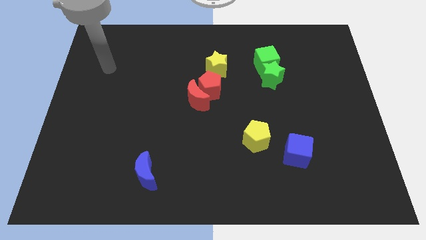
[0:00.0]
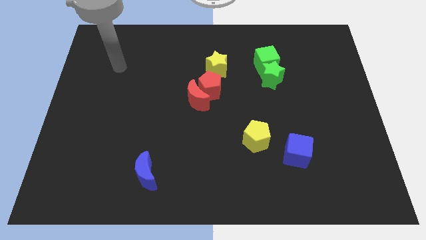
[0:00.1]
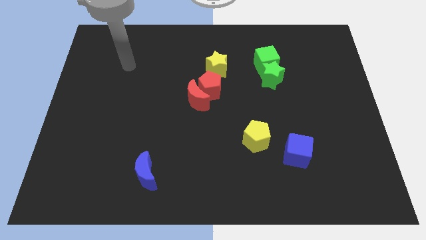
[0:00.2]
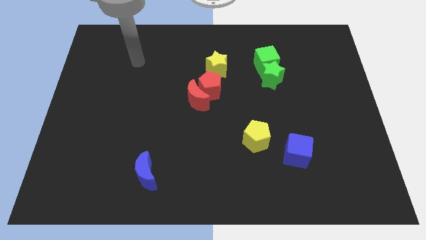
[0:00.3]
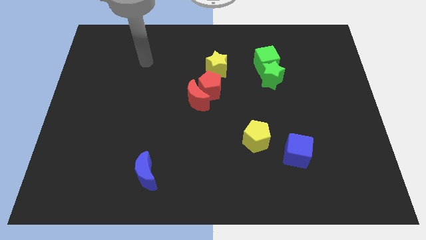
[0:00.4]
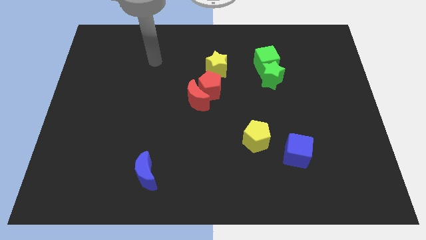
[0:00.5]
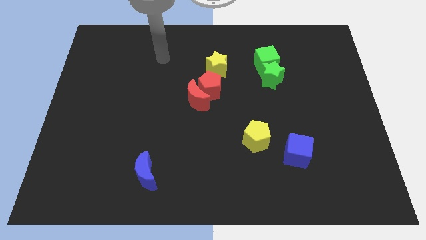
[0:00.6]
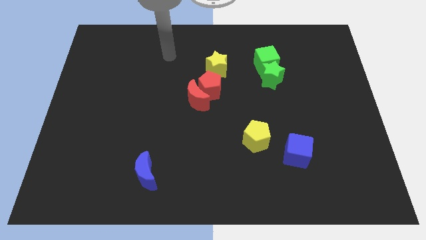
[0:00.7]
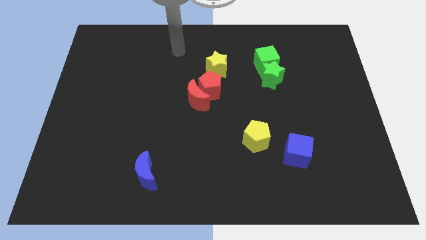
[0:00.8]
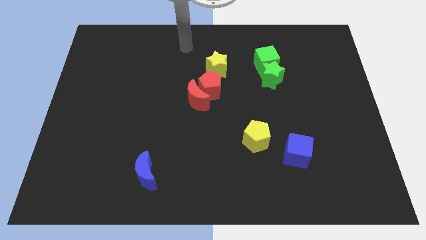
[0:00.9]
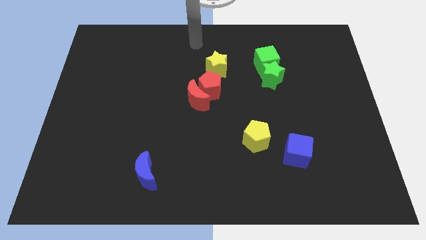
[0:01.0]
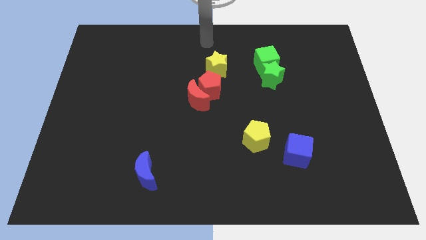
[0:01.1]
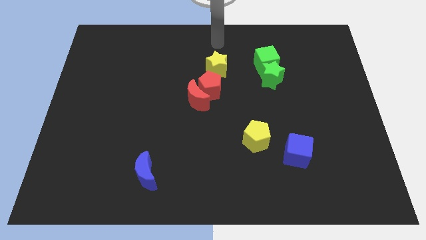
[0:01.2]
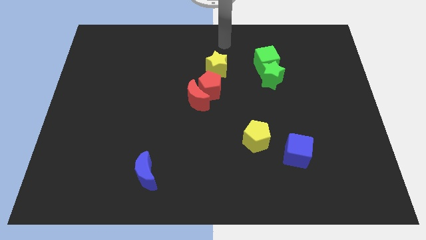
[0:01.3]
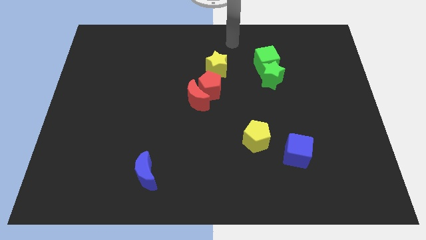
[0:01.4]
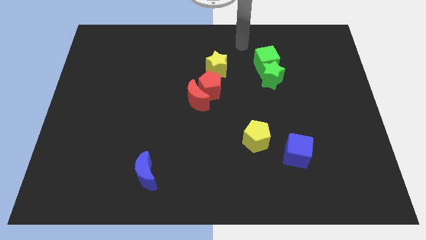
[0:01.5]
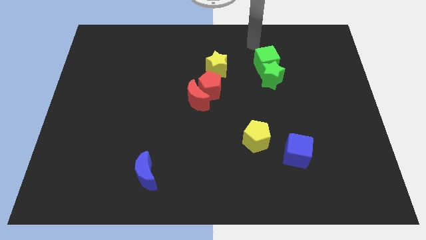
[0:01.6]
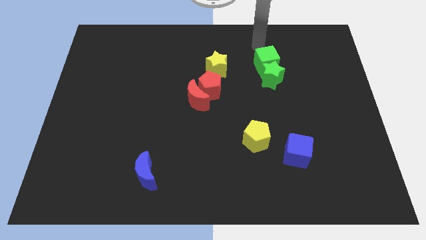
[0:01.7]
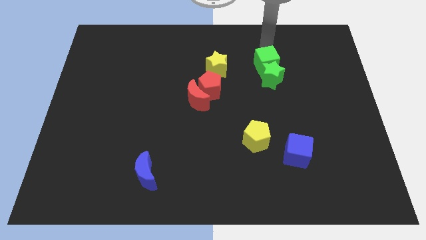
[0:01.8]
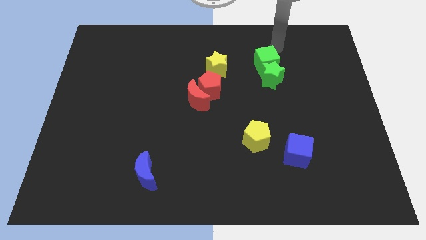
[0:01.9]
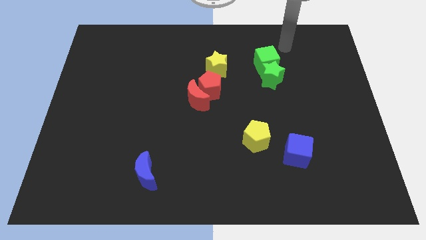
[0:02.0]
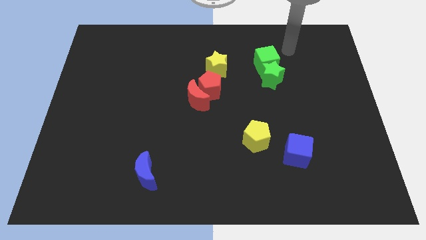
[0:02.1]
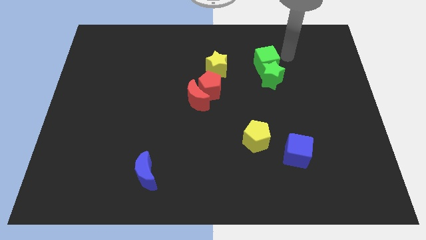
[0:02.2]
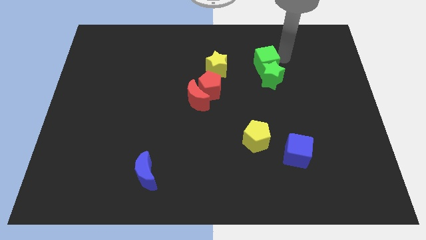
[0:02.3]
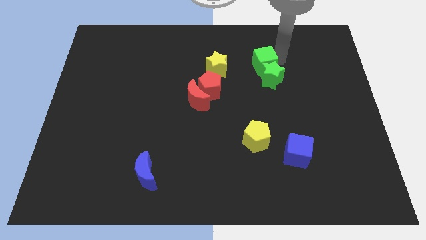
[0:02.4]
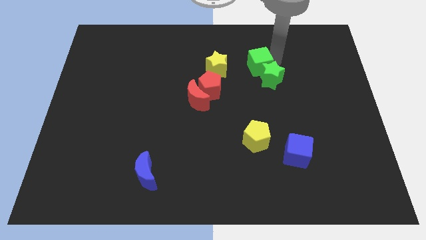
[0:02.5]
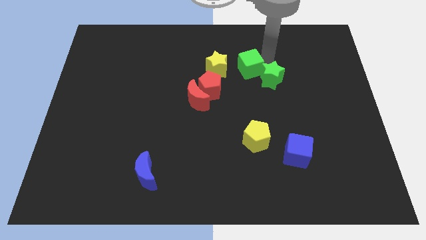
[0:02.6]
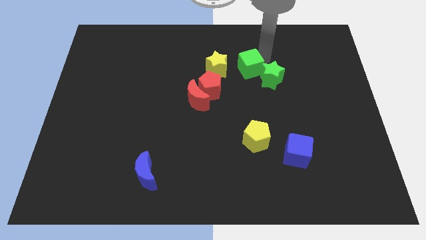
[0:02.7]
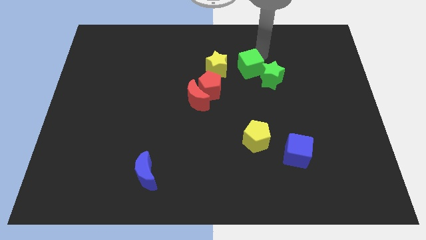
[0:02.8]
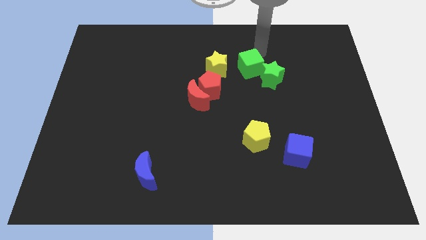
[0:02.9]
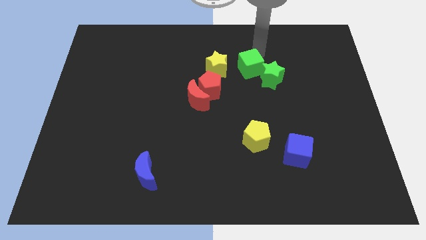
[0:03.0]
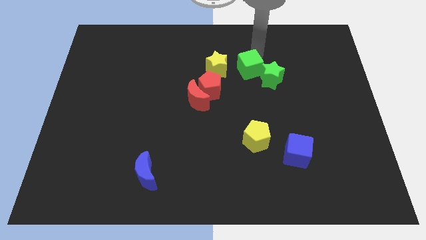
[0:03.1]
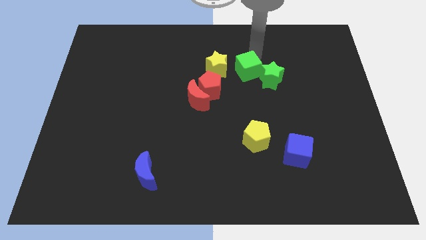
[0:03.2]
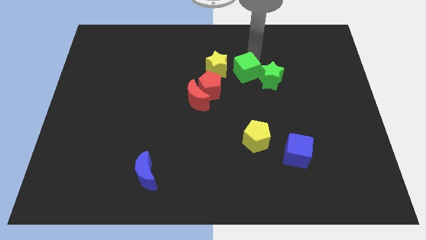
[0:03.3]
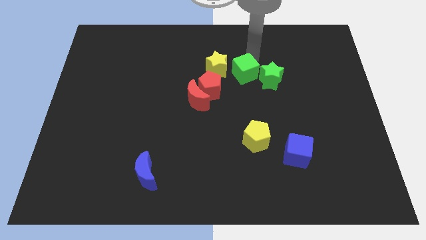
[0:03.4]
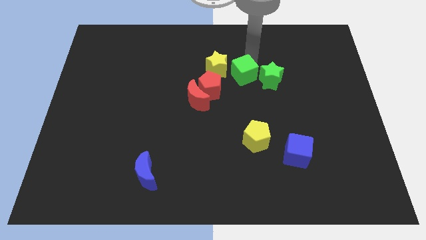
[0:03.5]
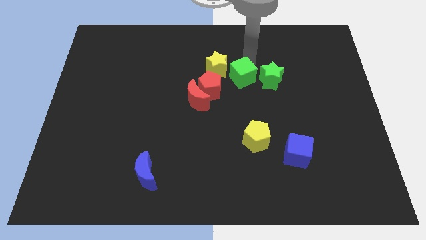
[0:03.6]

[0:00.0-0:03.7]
move the green cube a little diagonally downwards and to the left

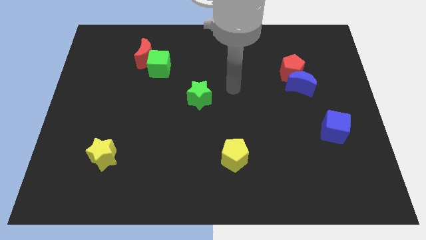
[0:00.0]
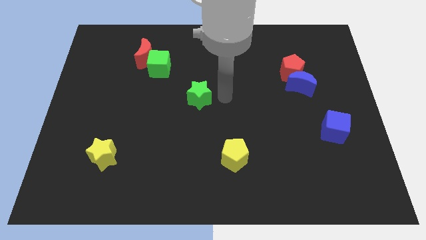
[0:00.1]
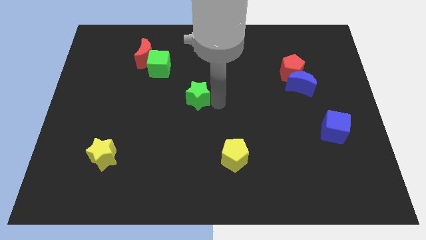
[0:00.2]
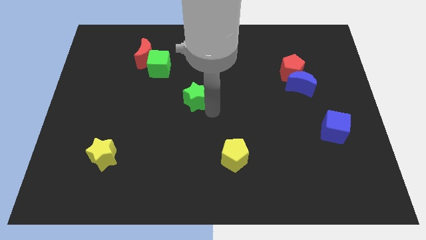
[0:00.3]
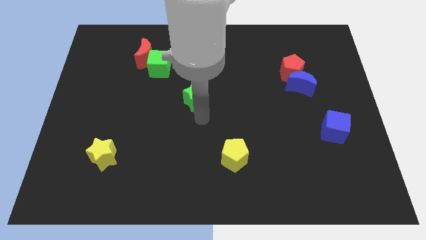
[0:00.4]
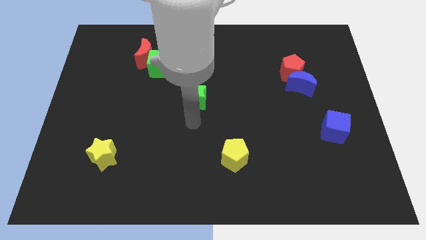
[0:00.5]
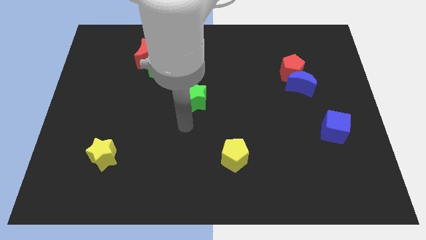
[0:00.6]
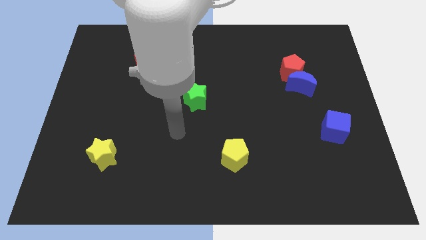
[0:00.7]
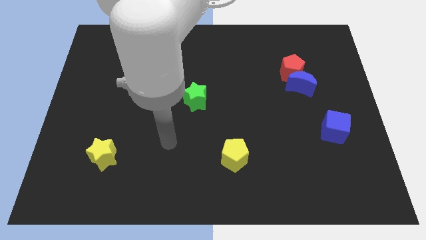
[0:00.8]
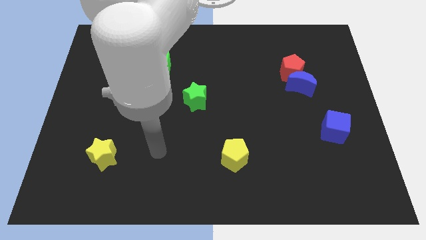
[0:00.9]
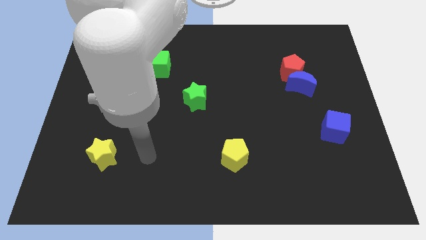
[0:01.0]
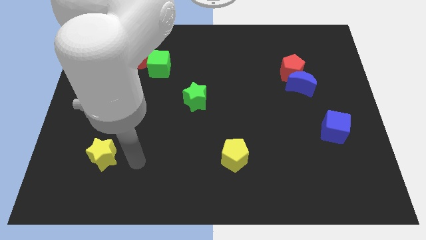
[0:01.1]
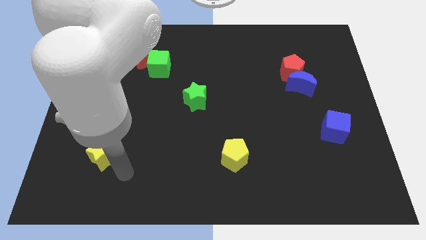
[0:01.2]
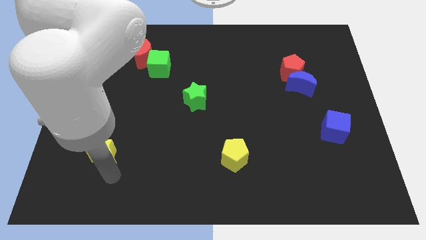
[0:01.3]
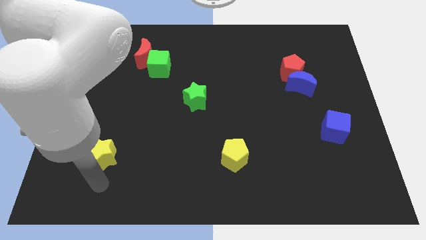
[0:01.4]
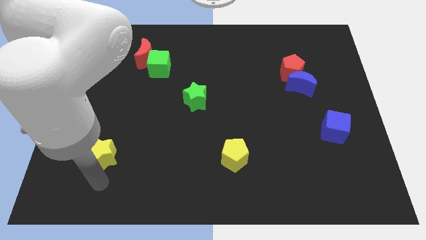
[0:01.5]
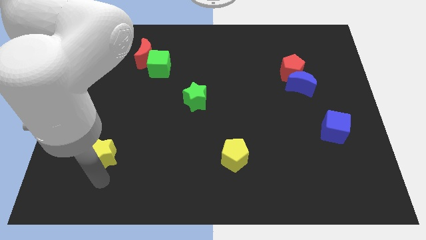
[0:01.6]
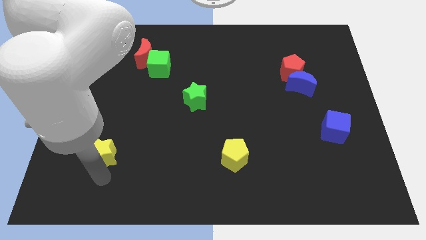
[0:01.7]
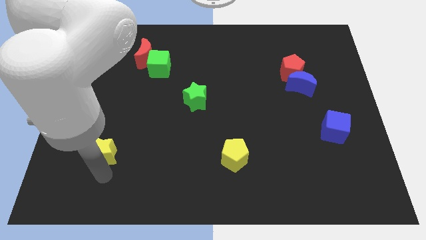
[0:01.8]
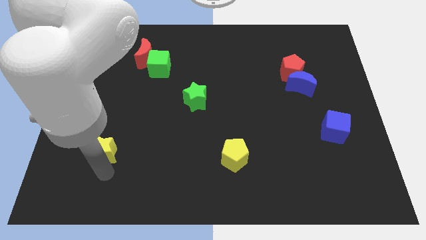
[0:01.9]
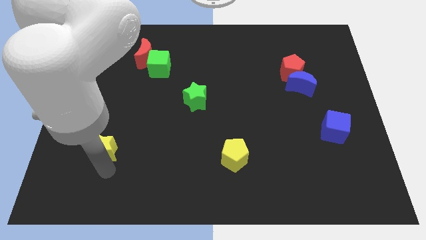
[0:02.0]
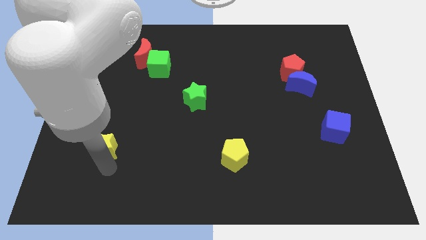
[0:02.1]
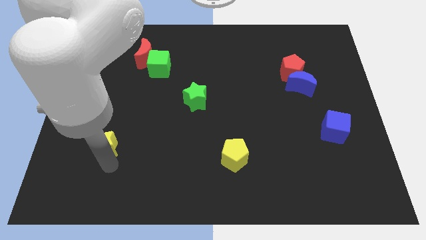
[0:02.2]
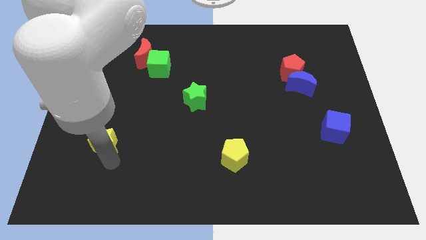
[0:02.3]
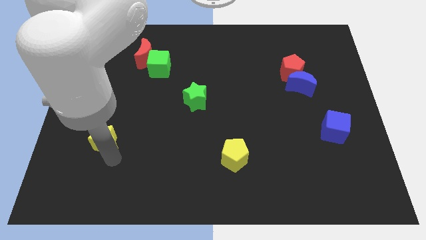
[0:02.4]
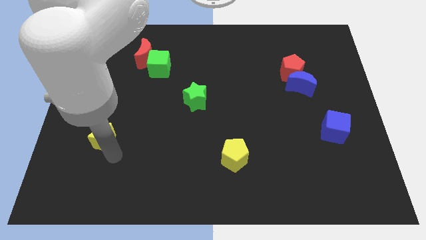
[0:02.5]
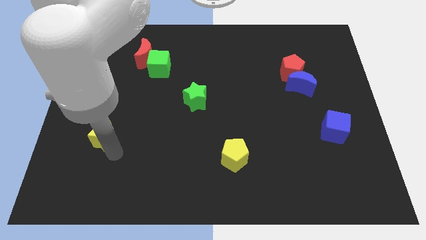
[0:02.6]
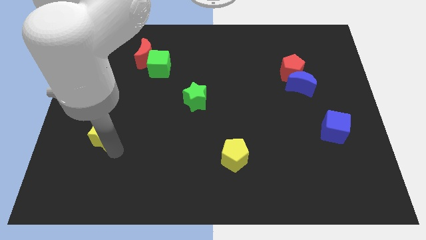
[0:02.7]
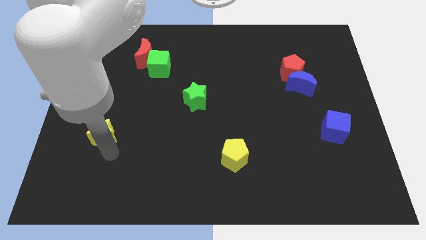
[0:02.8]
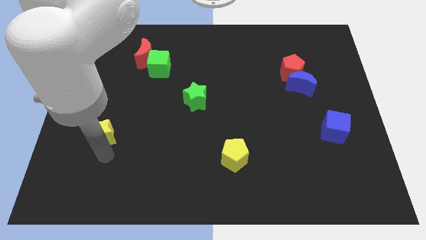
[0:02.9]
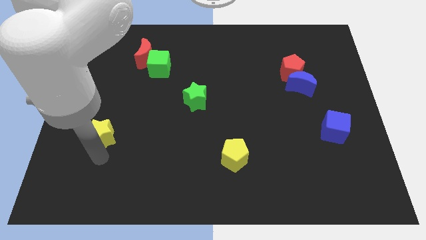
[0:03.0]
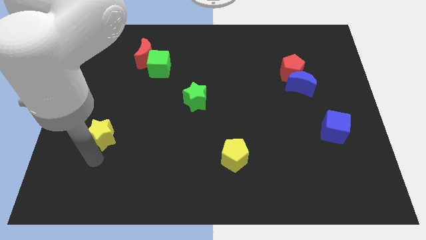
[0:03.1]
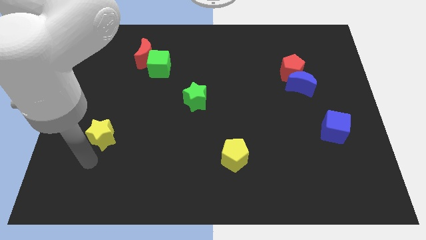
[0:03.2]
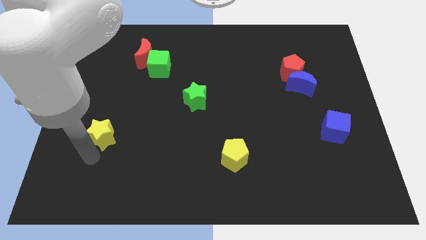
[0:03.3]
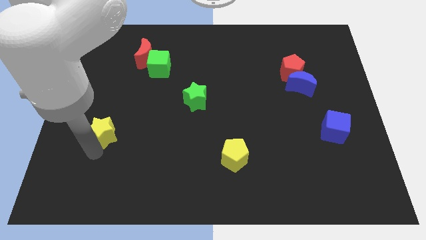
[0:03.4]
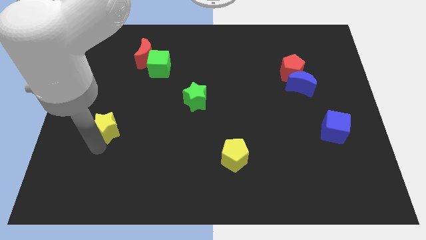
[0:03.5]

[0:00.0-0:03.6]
slide the yellow star slightly up

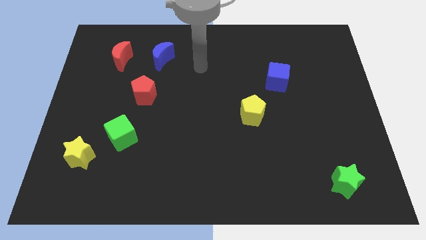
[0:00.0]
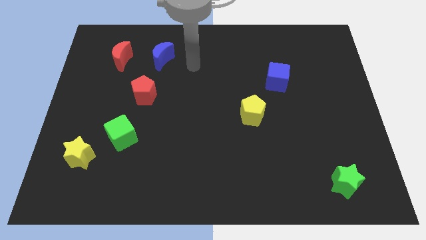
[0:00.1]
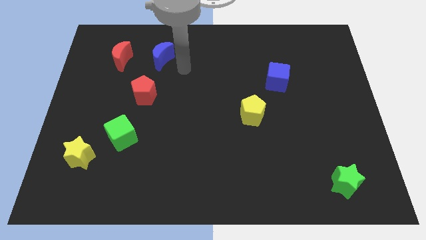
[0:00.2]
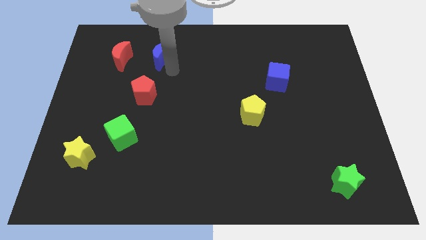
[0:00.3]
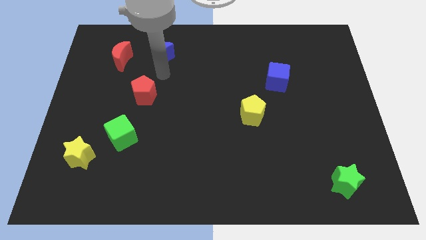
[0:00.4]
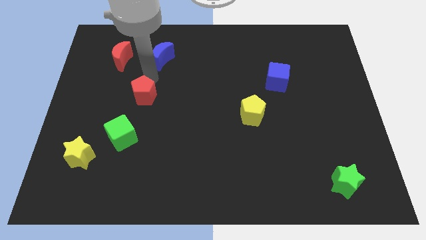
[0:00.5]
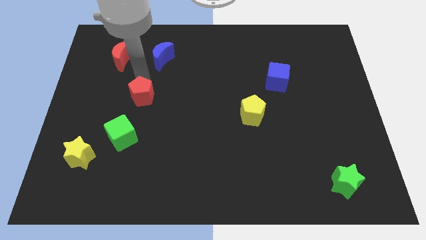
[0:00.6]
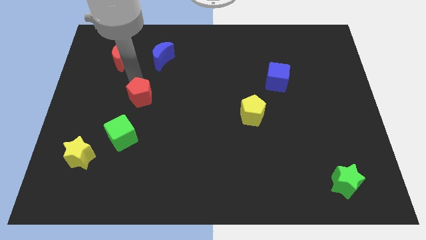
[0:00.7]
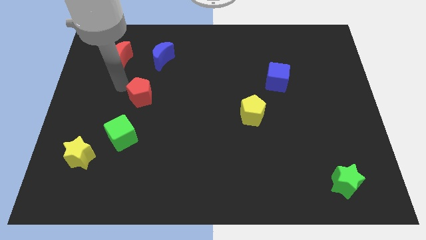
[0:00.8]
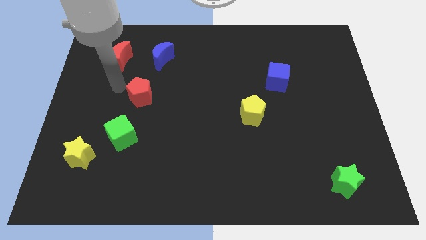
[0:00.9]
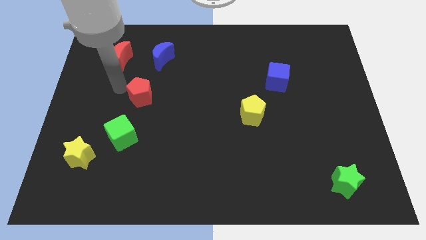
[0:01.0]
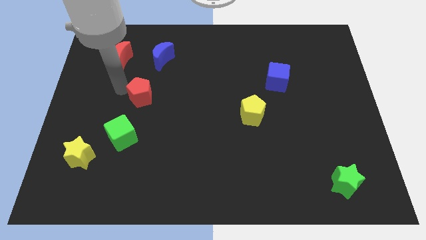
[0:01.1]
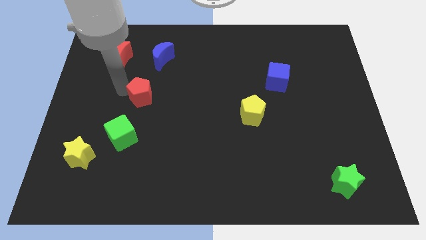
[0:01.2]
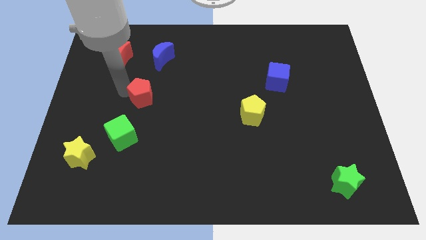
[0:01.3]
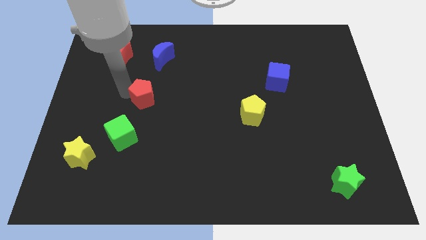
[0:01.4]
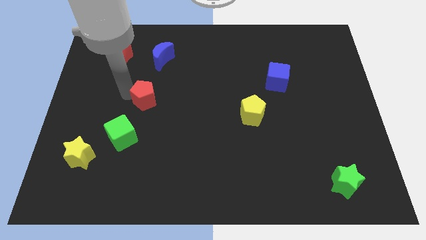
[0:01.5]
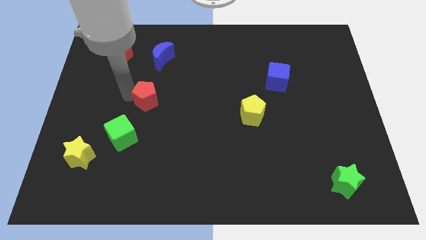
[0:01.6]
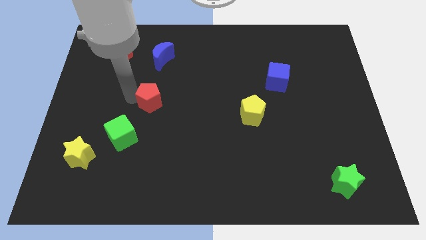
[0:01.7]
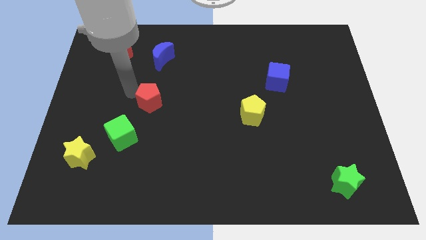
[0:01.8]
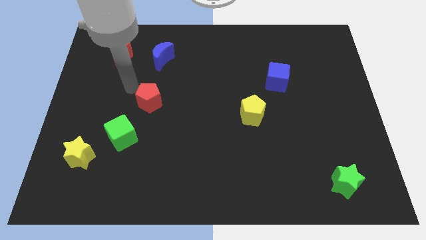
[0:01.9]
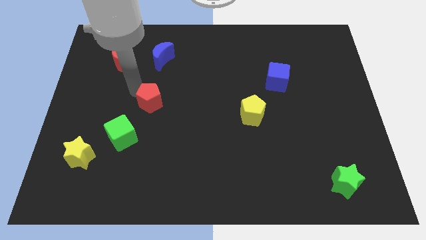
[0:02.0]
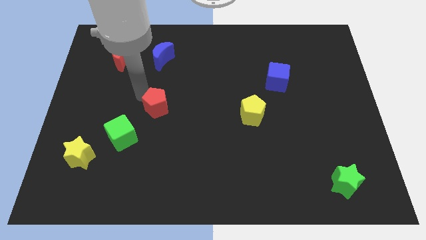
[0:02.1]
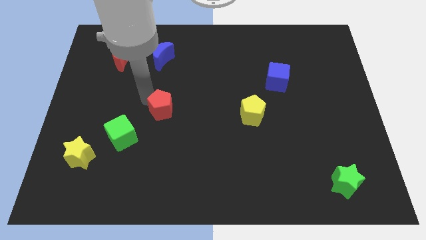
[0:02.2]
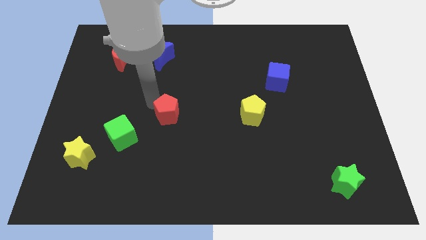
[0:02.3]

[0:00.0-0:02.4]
slightly move the red pentagon down and to the right diagonally
